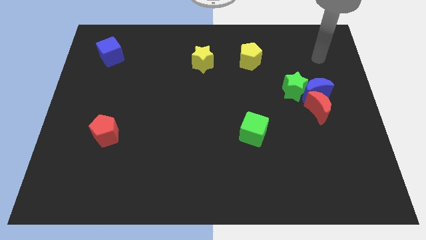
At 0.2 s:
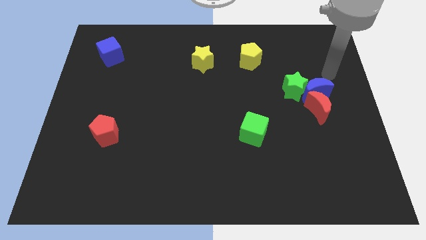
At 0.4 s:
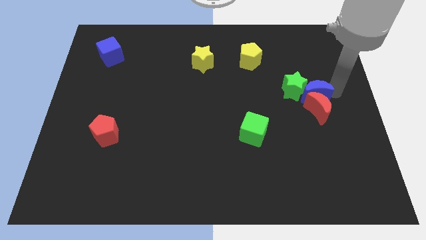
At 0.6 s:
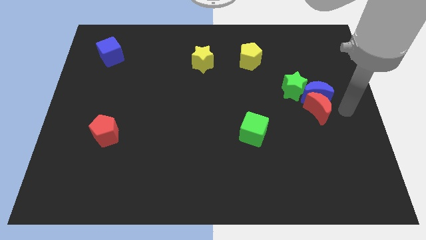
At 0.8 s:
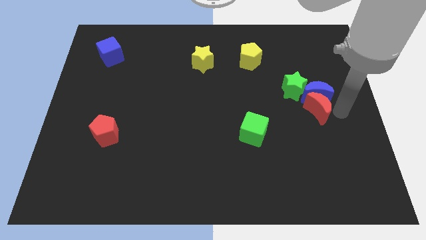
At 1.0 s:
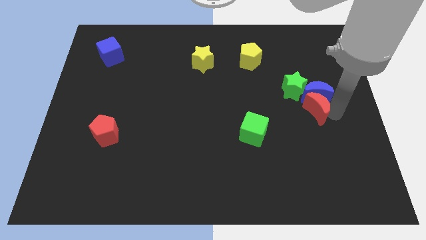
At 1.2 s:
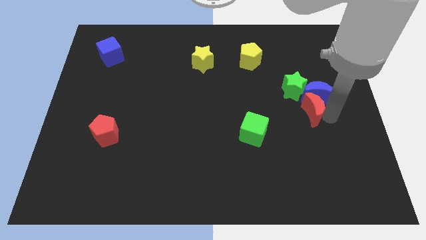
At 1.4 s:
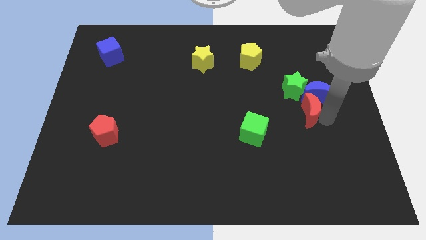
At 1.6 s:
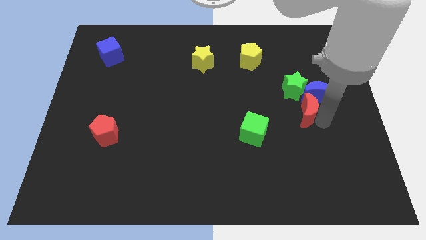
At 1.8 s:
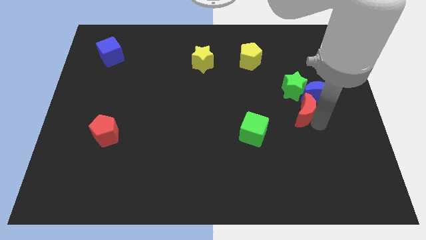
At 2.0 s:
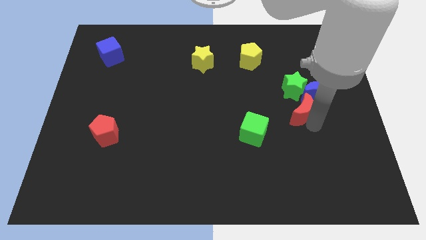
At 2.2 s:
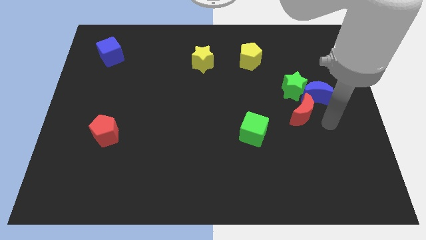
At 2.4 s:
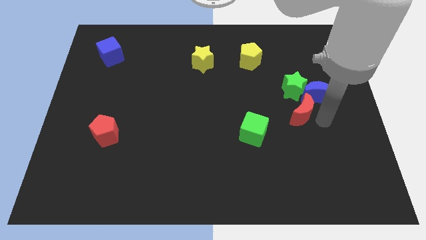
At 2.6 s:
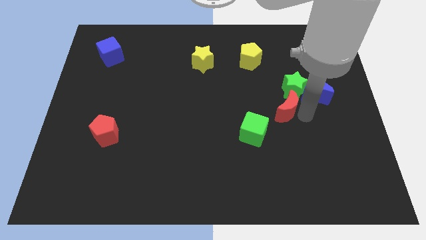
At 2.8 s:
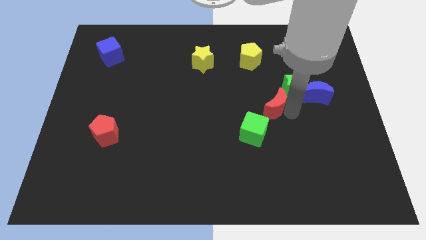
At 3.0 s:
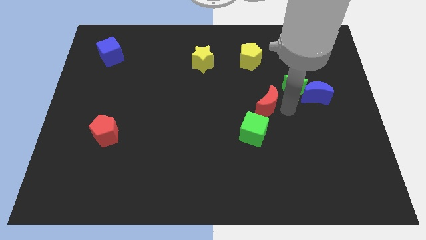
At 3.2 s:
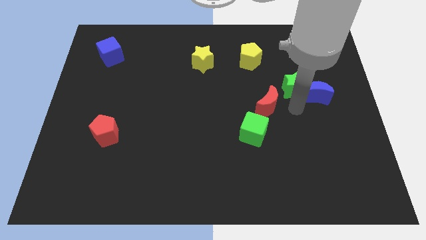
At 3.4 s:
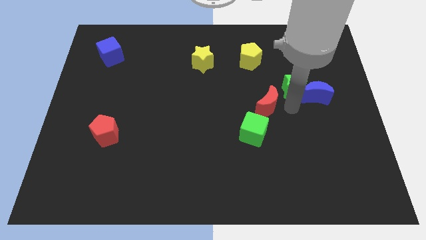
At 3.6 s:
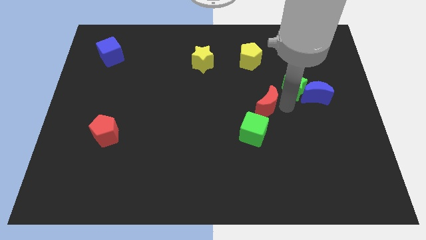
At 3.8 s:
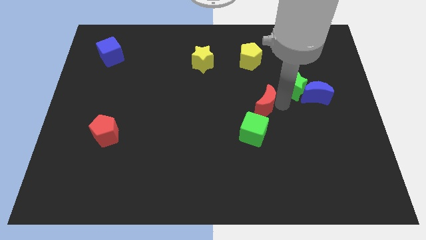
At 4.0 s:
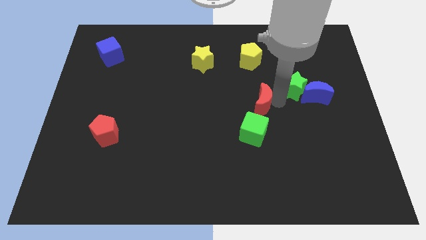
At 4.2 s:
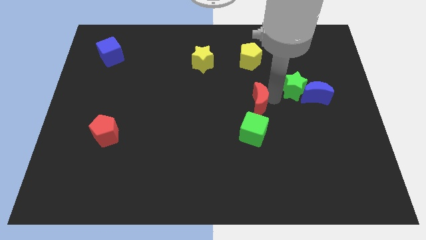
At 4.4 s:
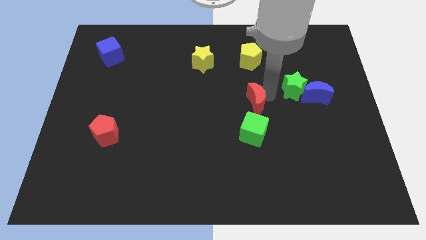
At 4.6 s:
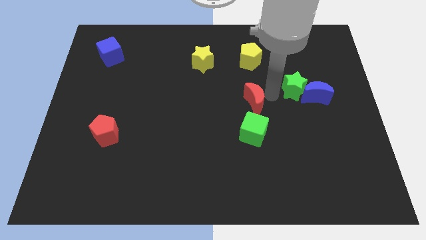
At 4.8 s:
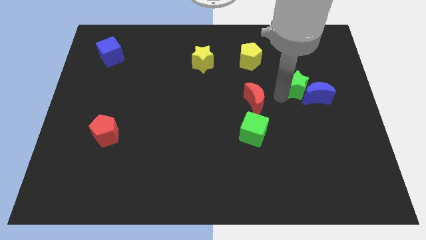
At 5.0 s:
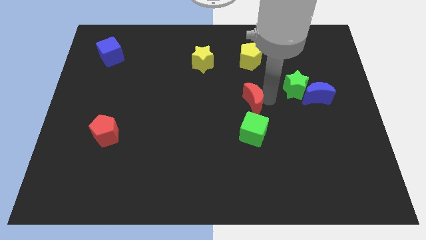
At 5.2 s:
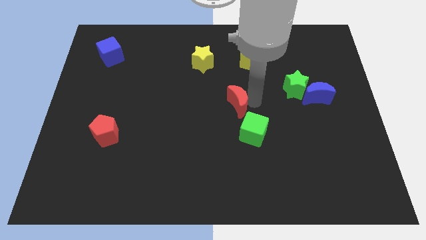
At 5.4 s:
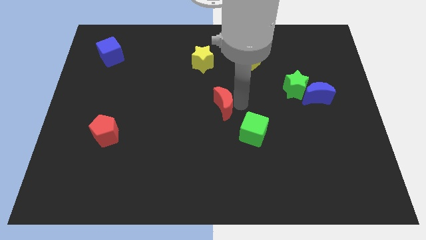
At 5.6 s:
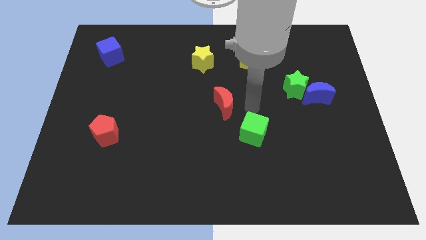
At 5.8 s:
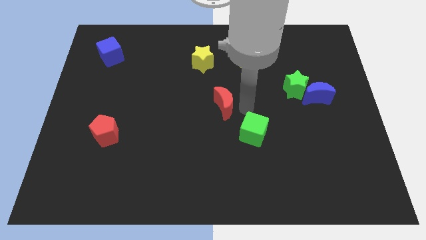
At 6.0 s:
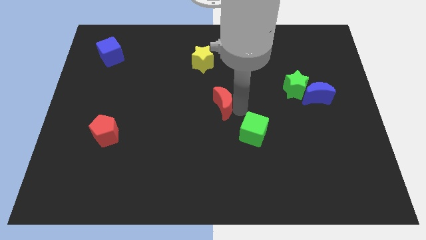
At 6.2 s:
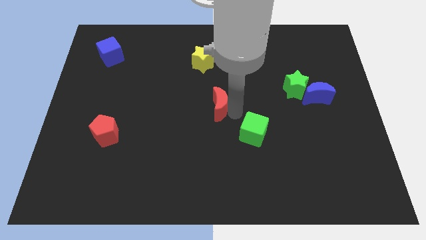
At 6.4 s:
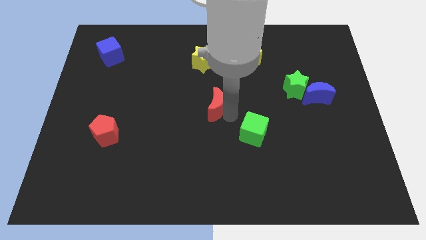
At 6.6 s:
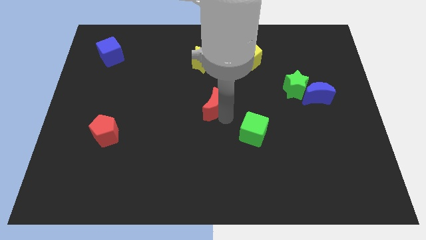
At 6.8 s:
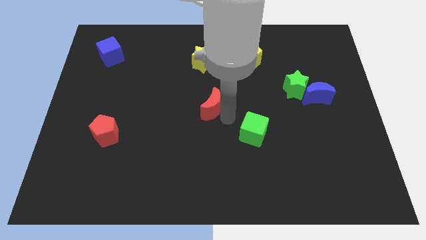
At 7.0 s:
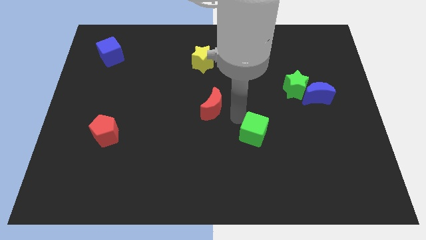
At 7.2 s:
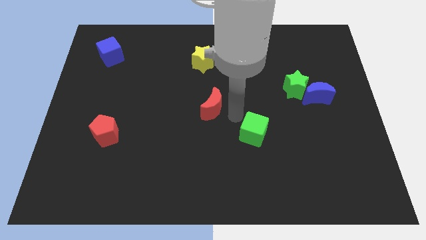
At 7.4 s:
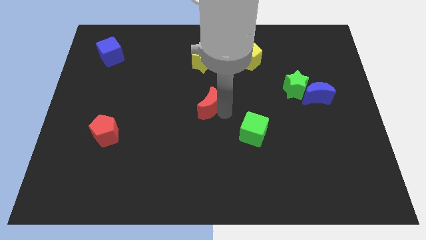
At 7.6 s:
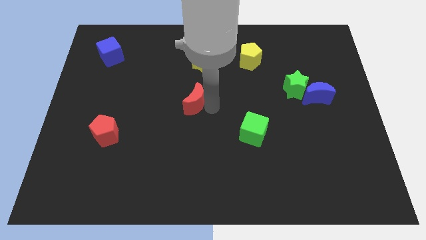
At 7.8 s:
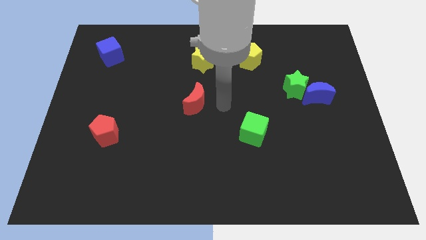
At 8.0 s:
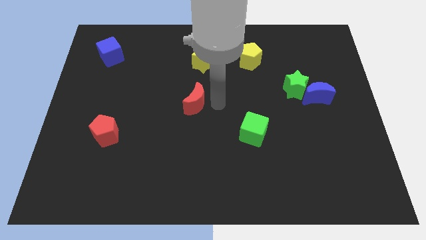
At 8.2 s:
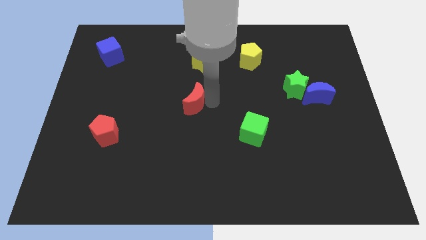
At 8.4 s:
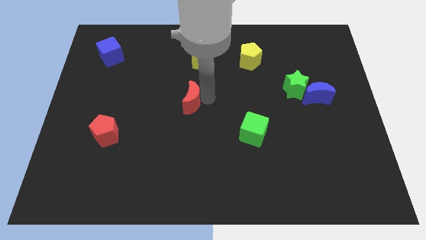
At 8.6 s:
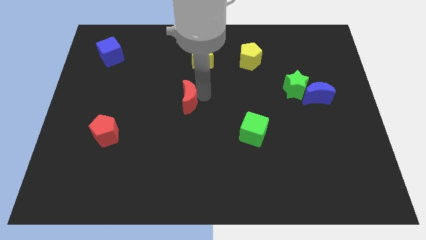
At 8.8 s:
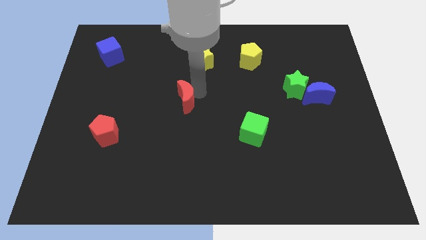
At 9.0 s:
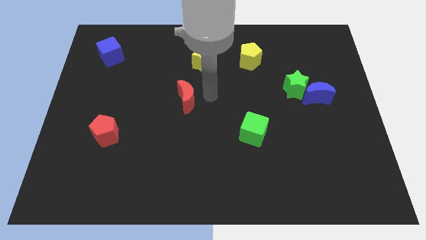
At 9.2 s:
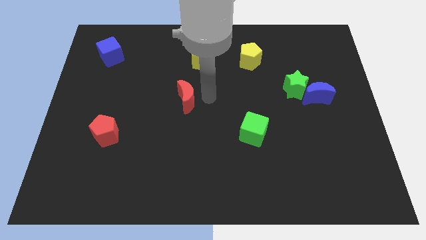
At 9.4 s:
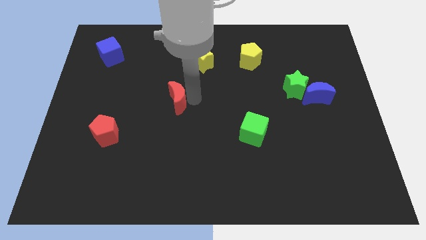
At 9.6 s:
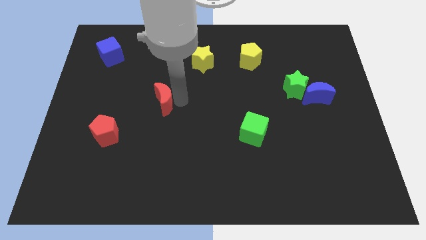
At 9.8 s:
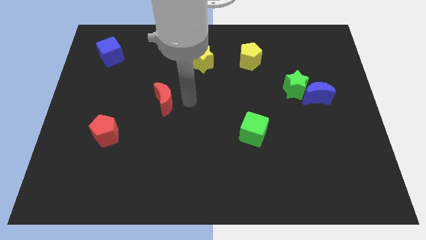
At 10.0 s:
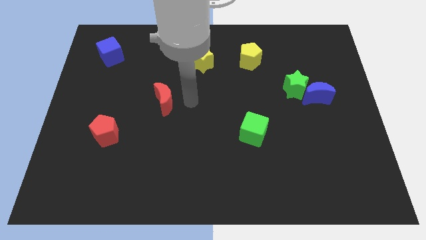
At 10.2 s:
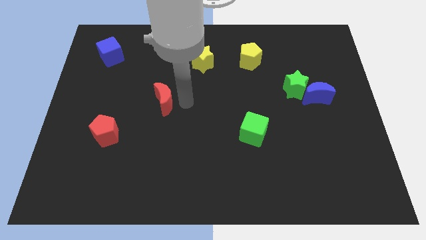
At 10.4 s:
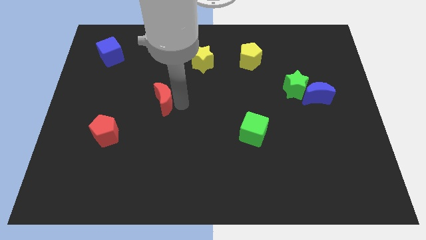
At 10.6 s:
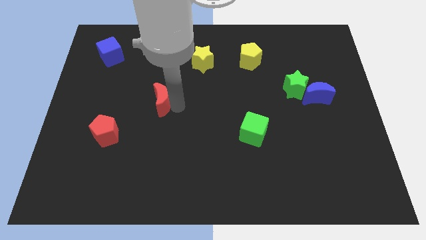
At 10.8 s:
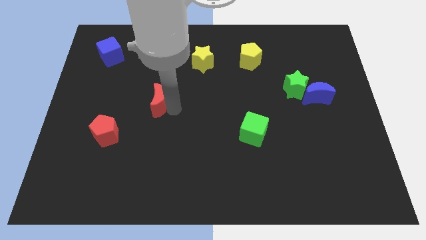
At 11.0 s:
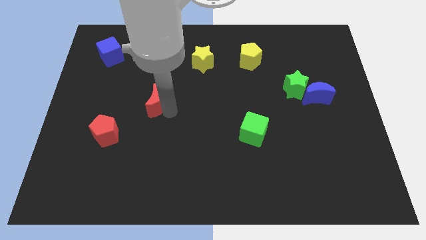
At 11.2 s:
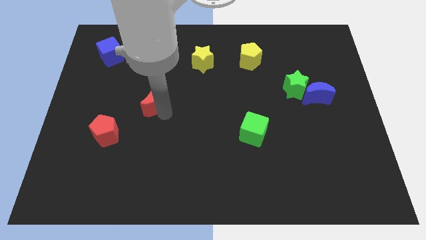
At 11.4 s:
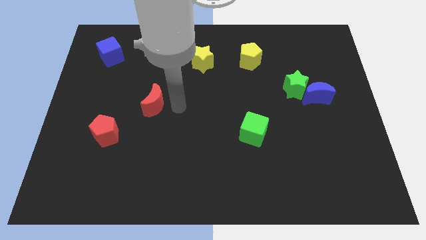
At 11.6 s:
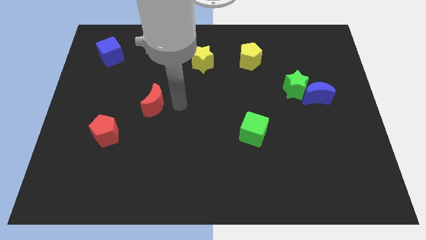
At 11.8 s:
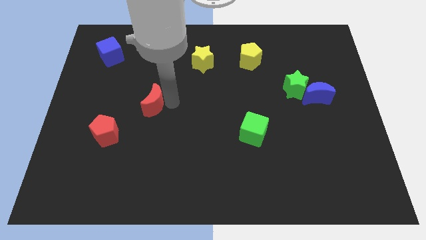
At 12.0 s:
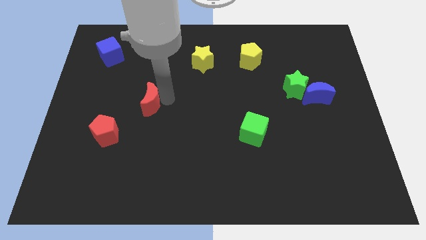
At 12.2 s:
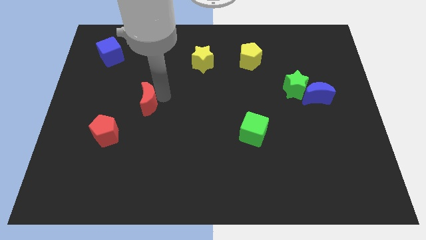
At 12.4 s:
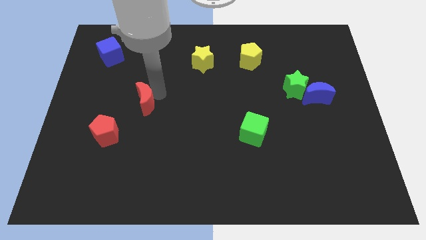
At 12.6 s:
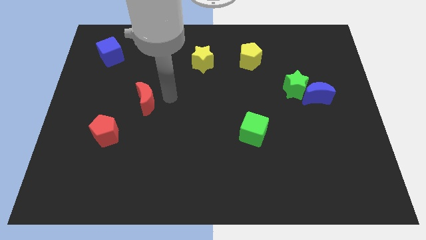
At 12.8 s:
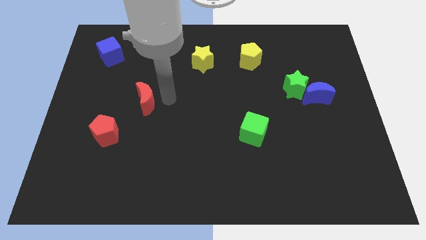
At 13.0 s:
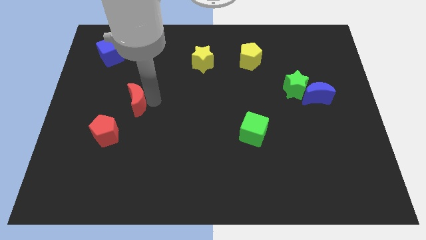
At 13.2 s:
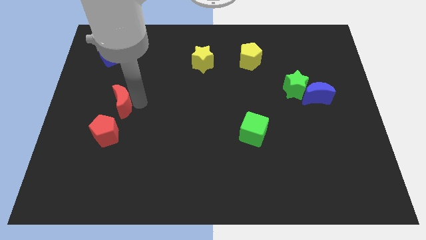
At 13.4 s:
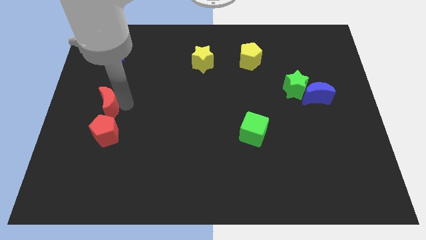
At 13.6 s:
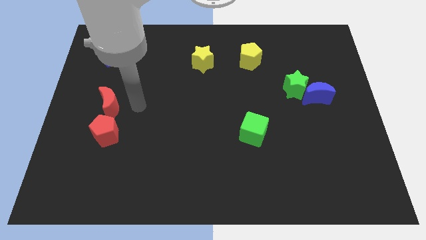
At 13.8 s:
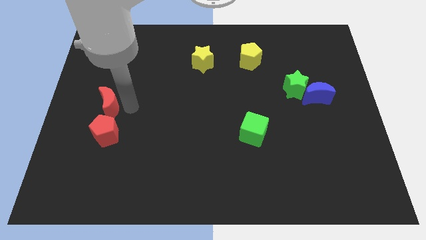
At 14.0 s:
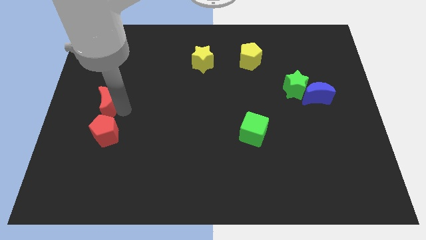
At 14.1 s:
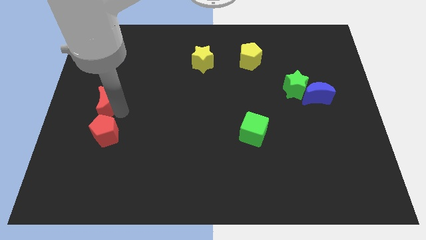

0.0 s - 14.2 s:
move the red moon to the left side of the board
